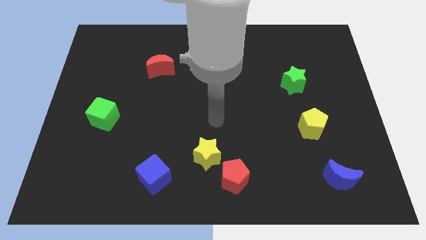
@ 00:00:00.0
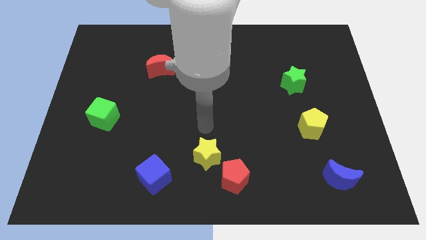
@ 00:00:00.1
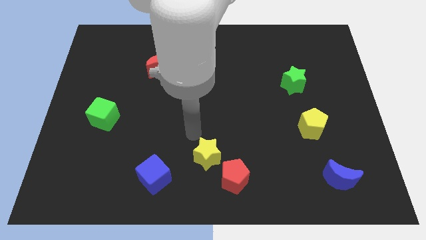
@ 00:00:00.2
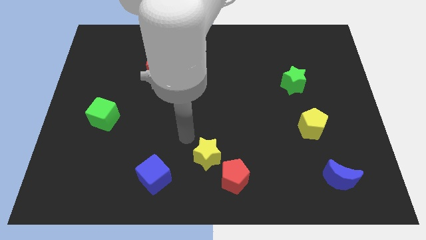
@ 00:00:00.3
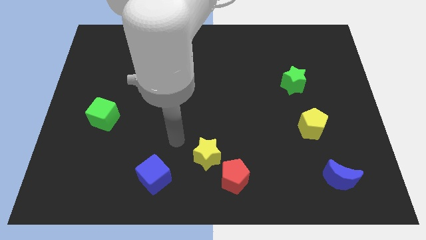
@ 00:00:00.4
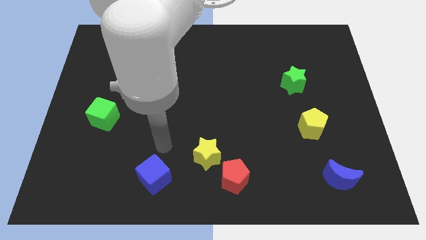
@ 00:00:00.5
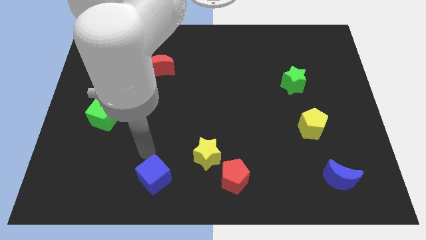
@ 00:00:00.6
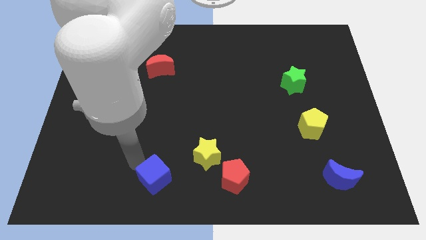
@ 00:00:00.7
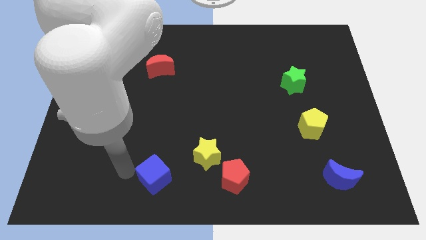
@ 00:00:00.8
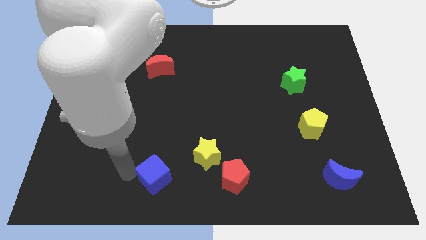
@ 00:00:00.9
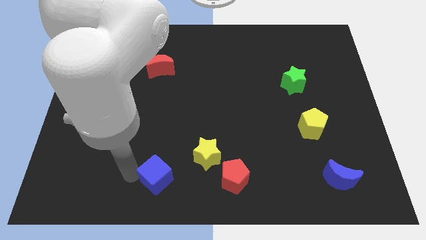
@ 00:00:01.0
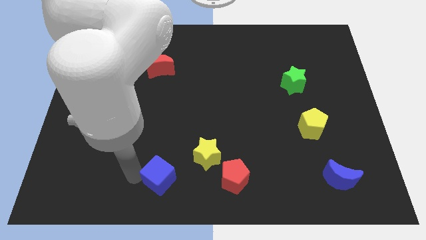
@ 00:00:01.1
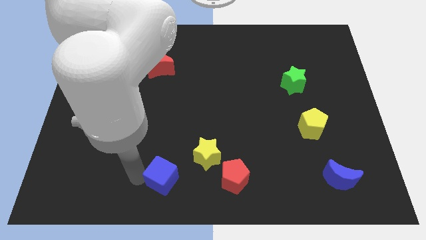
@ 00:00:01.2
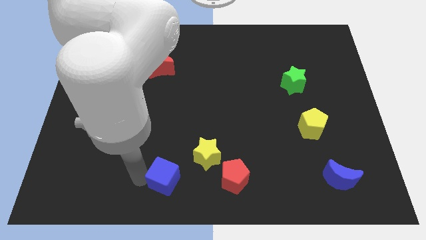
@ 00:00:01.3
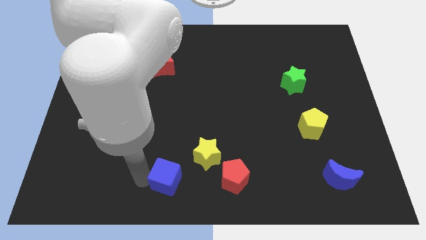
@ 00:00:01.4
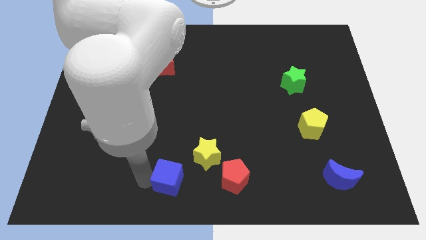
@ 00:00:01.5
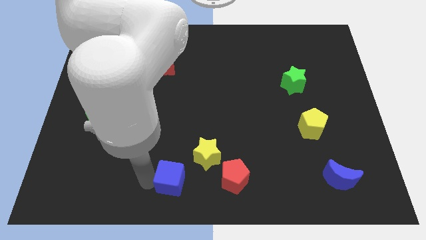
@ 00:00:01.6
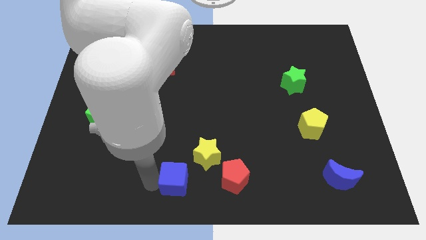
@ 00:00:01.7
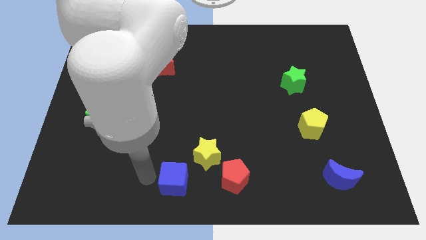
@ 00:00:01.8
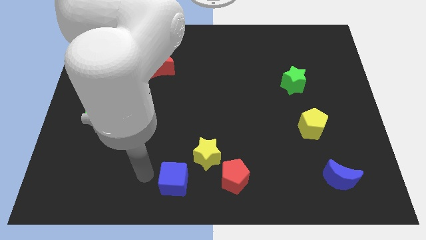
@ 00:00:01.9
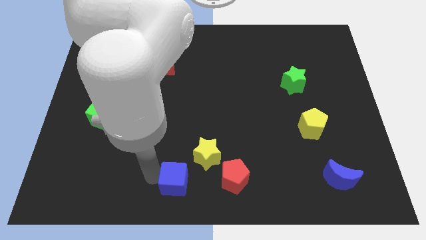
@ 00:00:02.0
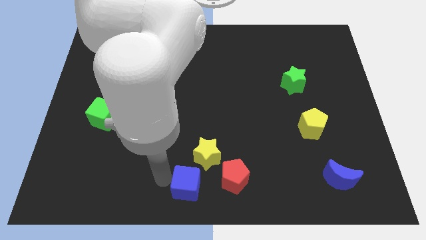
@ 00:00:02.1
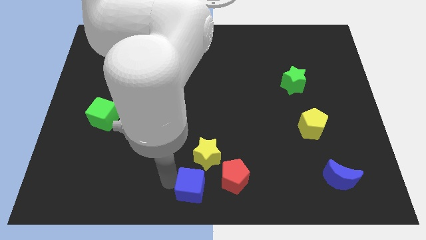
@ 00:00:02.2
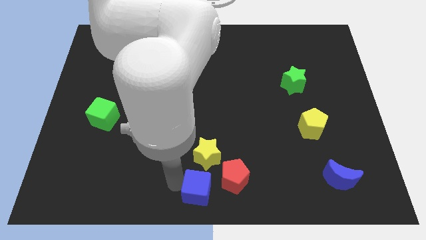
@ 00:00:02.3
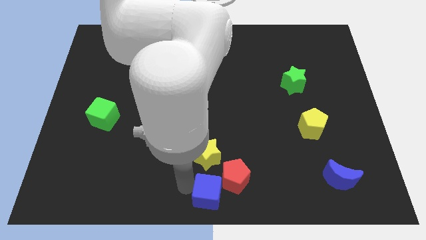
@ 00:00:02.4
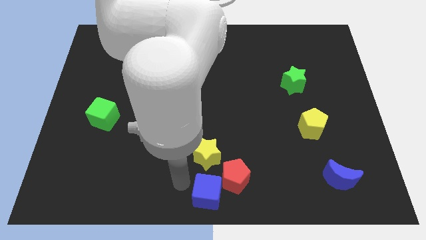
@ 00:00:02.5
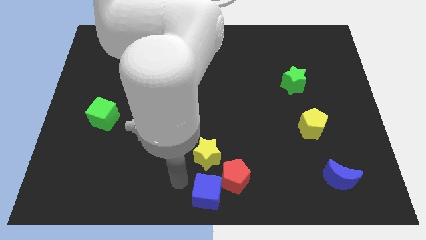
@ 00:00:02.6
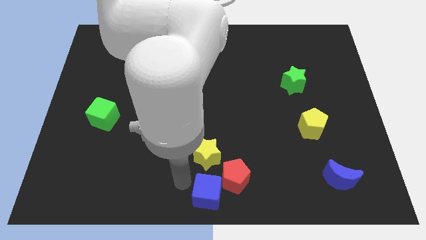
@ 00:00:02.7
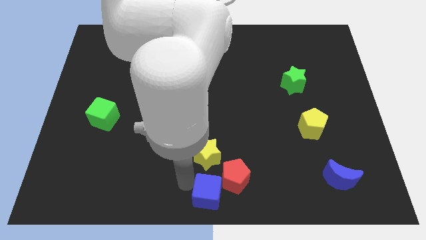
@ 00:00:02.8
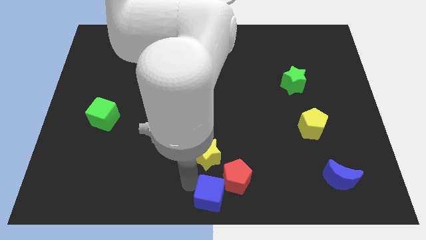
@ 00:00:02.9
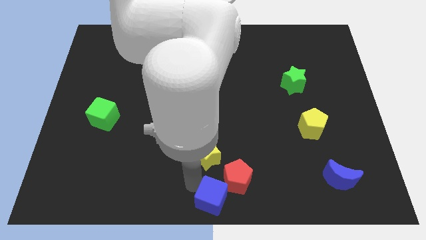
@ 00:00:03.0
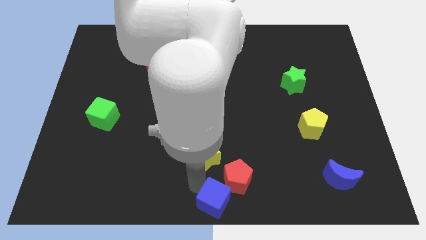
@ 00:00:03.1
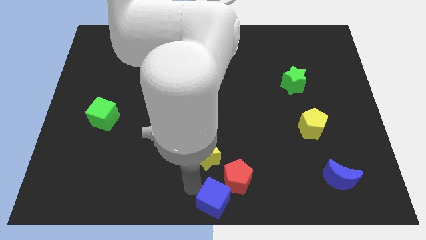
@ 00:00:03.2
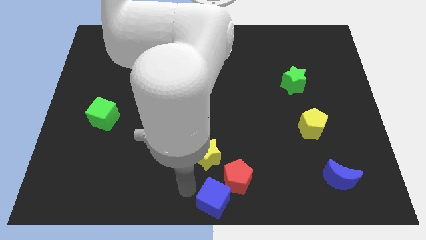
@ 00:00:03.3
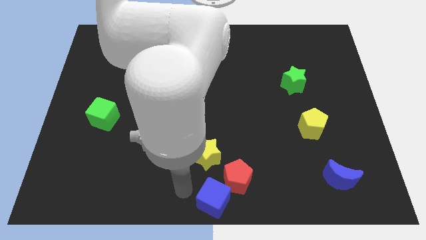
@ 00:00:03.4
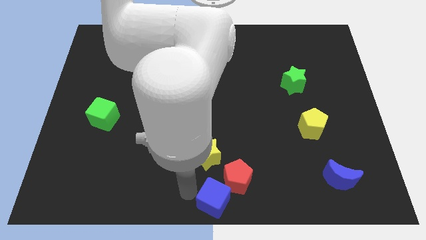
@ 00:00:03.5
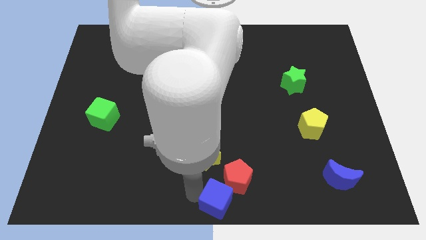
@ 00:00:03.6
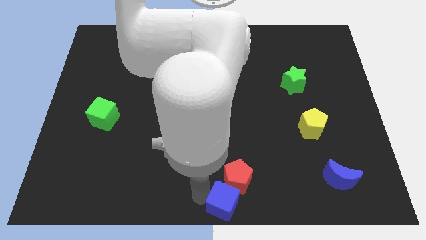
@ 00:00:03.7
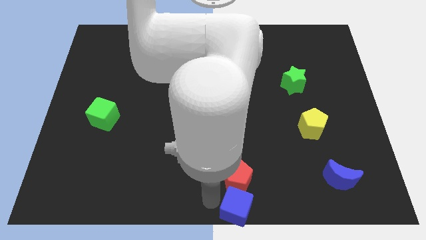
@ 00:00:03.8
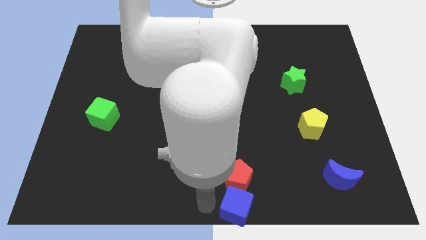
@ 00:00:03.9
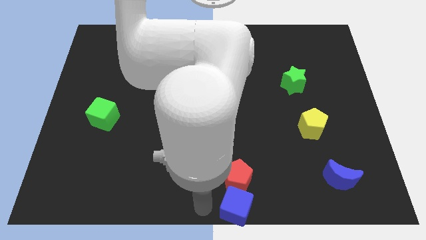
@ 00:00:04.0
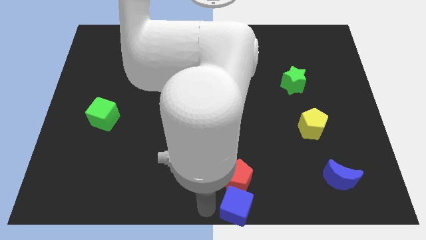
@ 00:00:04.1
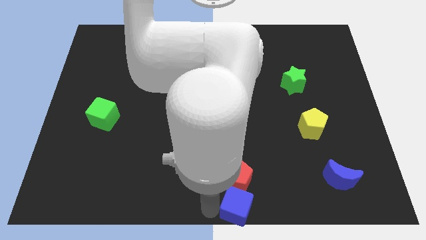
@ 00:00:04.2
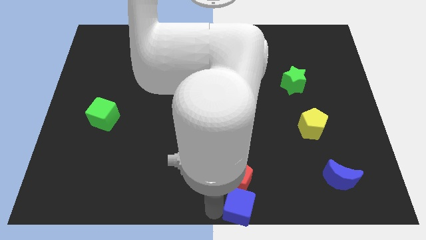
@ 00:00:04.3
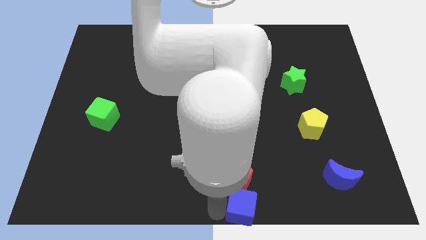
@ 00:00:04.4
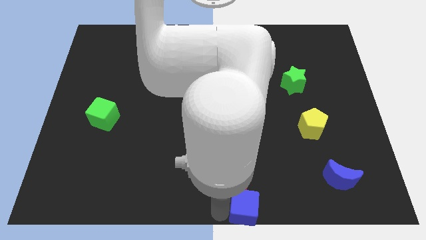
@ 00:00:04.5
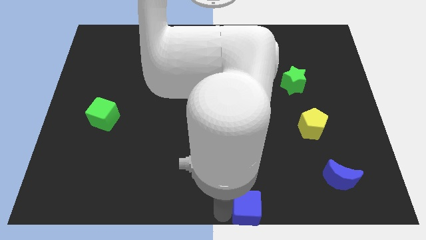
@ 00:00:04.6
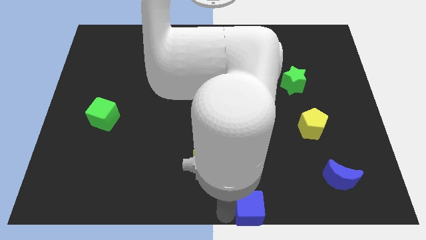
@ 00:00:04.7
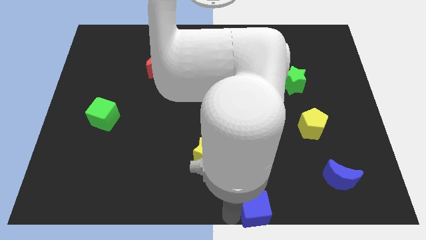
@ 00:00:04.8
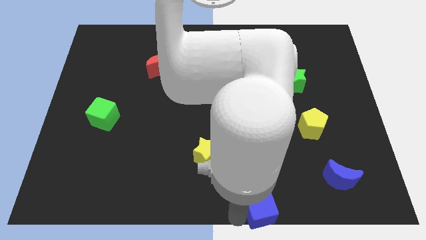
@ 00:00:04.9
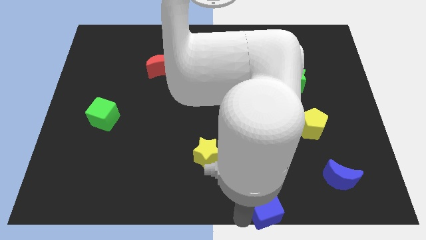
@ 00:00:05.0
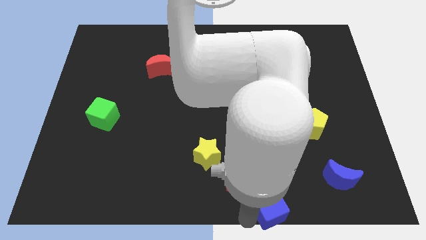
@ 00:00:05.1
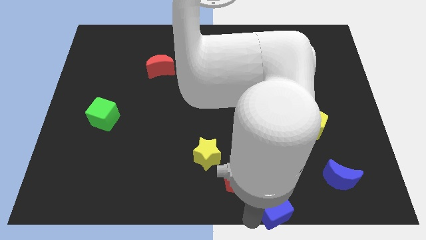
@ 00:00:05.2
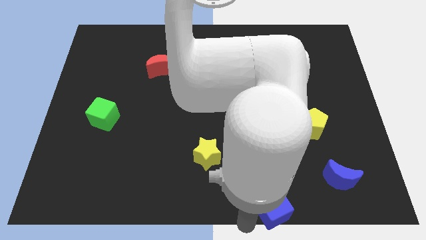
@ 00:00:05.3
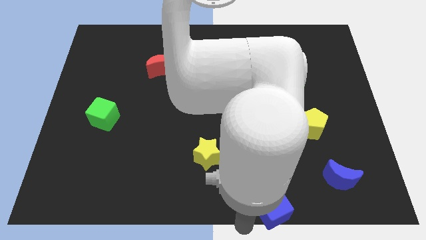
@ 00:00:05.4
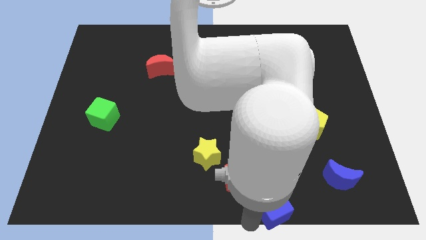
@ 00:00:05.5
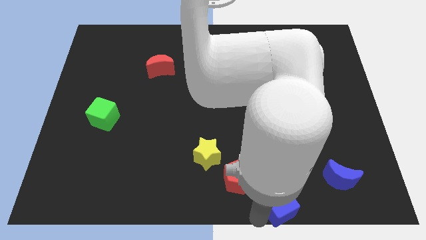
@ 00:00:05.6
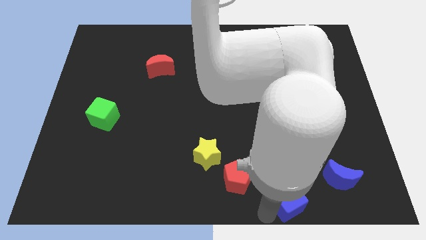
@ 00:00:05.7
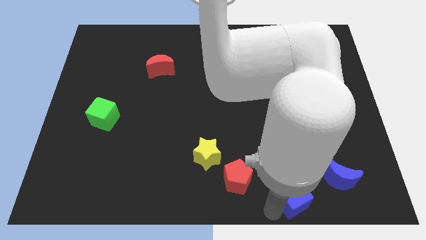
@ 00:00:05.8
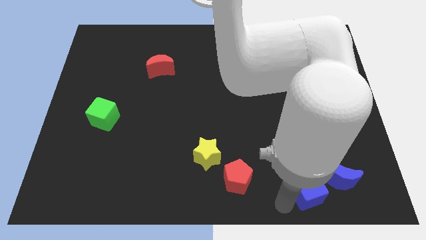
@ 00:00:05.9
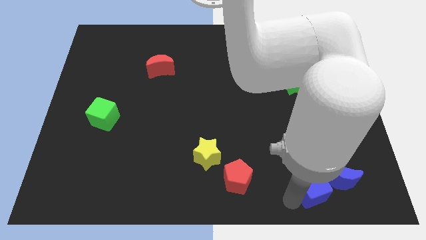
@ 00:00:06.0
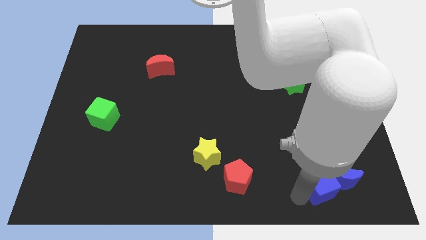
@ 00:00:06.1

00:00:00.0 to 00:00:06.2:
push the blue cube to the blue moon

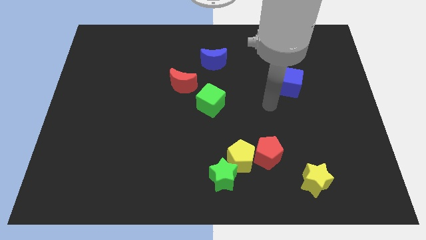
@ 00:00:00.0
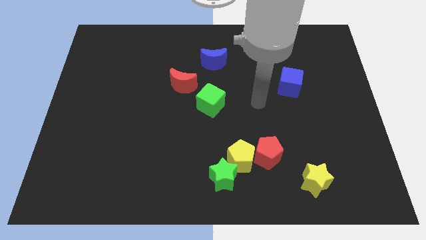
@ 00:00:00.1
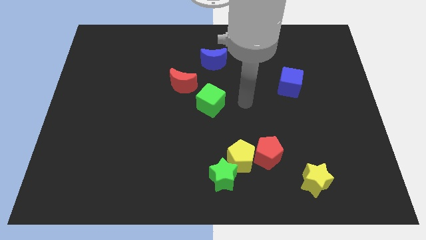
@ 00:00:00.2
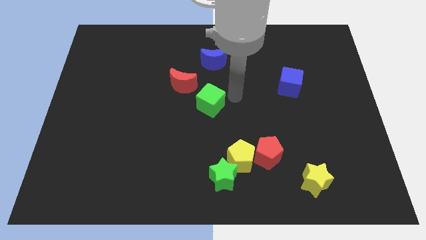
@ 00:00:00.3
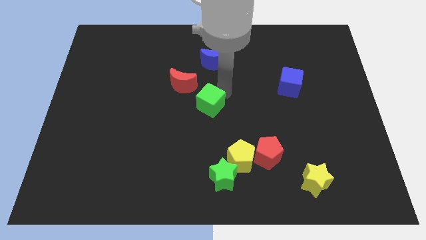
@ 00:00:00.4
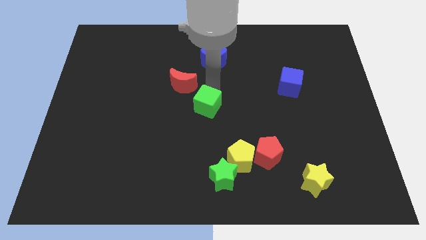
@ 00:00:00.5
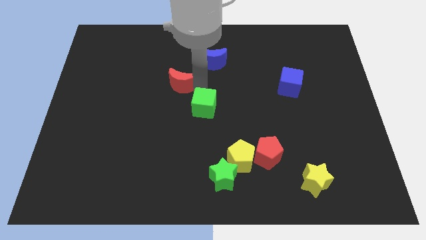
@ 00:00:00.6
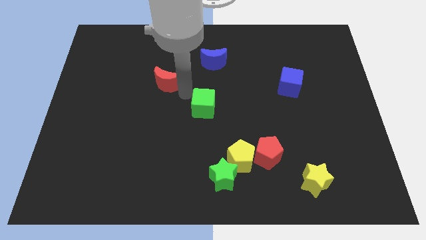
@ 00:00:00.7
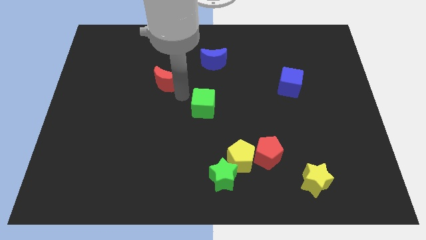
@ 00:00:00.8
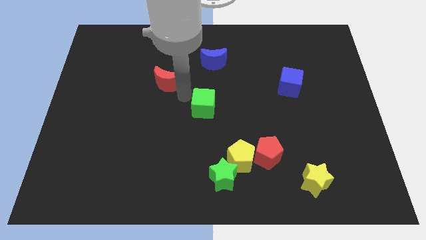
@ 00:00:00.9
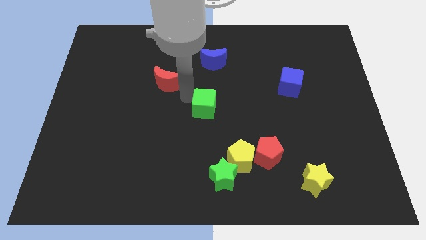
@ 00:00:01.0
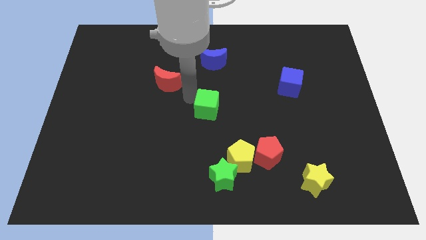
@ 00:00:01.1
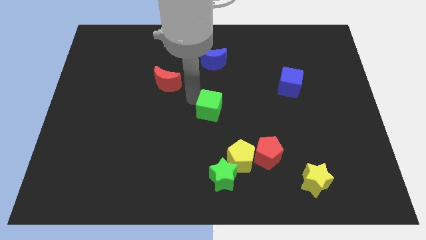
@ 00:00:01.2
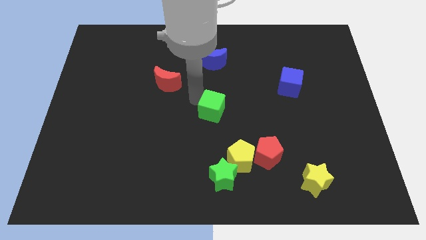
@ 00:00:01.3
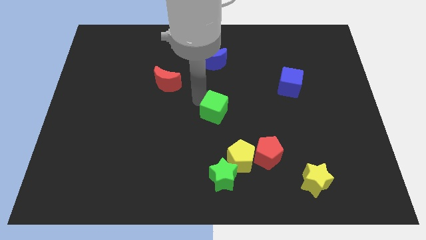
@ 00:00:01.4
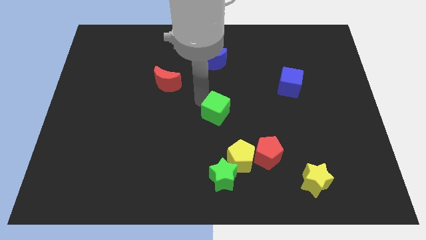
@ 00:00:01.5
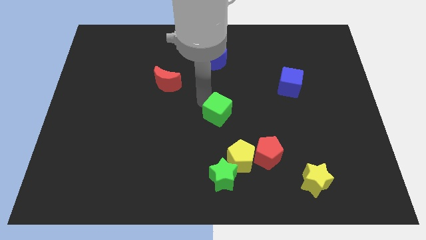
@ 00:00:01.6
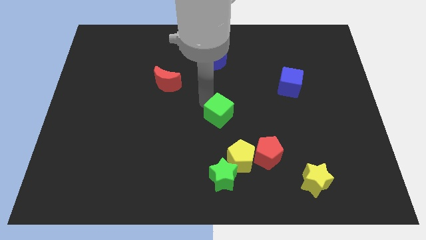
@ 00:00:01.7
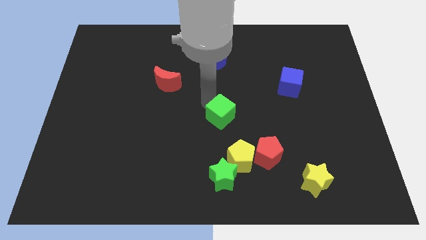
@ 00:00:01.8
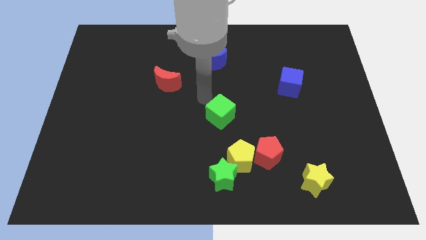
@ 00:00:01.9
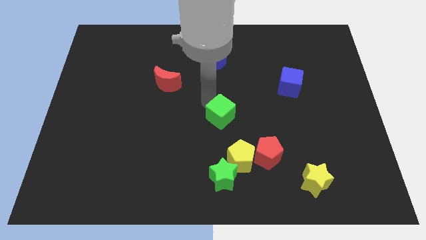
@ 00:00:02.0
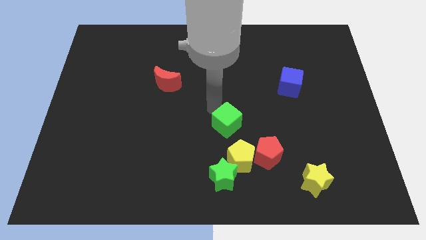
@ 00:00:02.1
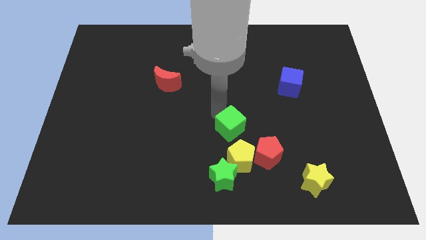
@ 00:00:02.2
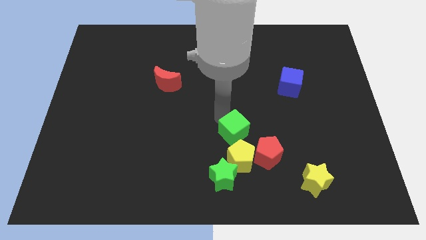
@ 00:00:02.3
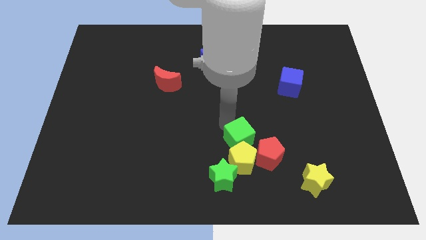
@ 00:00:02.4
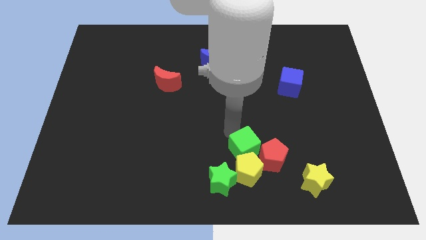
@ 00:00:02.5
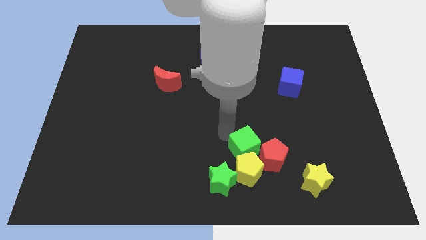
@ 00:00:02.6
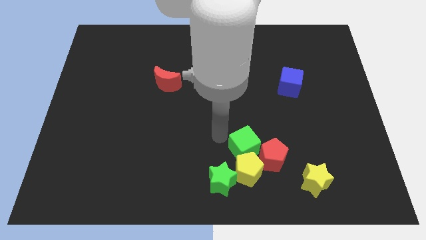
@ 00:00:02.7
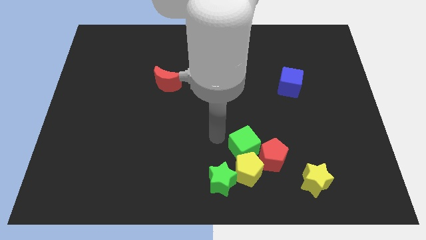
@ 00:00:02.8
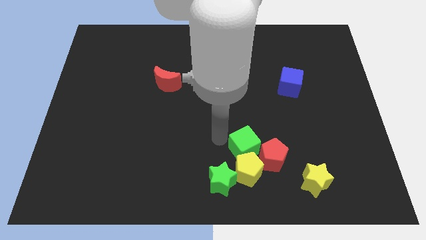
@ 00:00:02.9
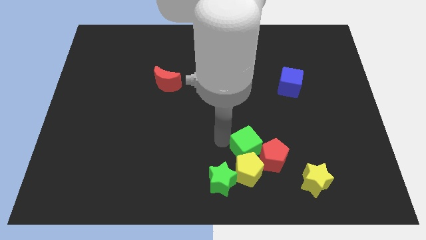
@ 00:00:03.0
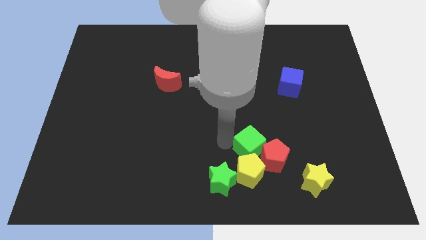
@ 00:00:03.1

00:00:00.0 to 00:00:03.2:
slide the green cube close to the red pentagon
